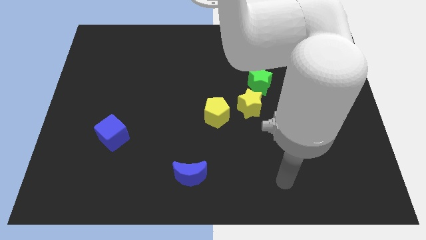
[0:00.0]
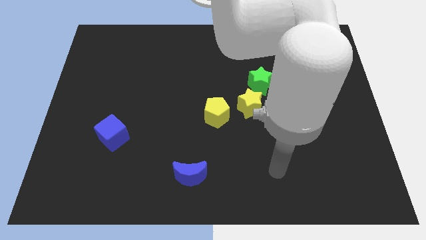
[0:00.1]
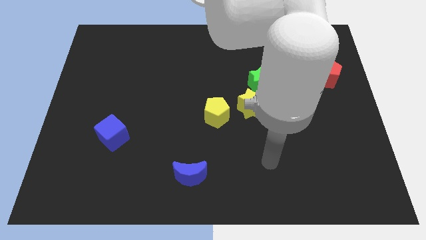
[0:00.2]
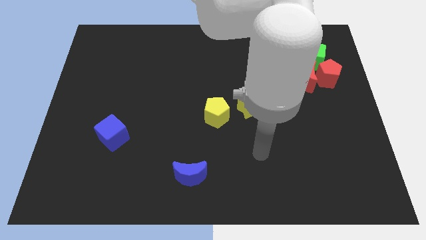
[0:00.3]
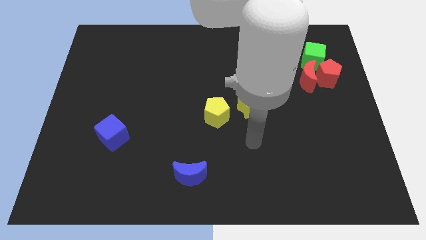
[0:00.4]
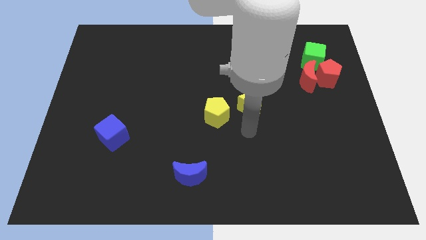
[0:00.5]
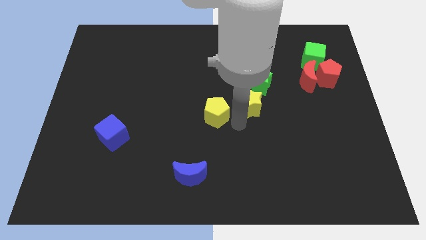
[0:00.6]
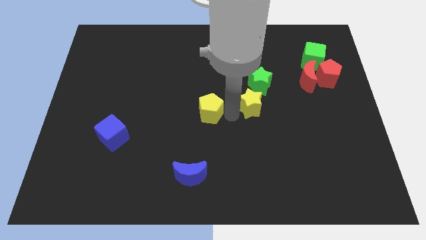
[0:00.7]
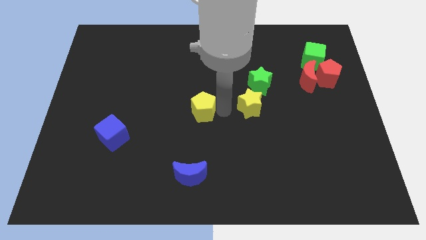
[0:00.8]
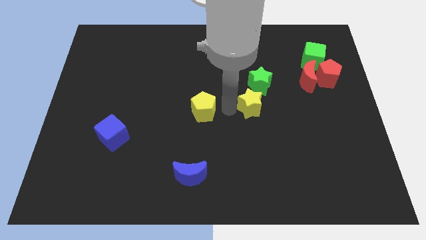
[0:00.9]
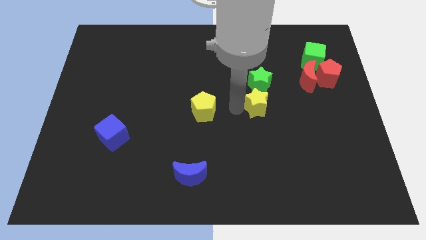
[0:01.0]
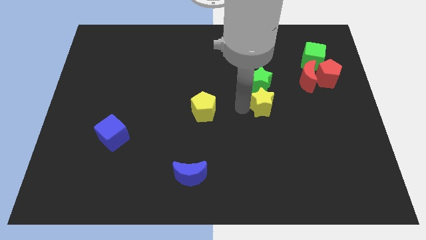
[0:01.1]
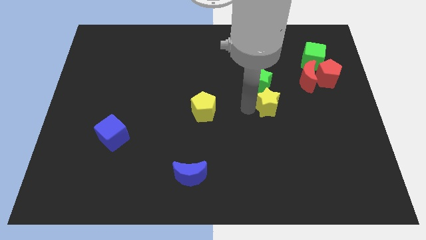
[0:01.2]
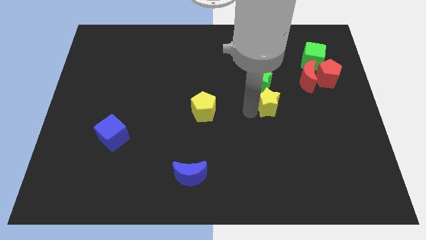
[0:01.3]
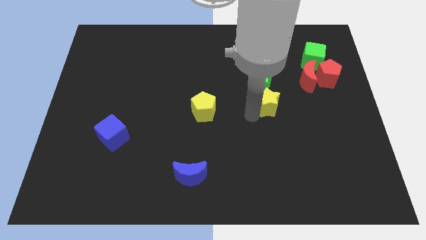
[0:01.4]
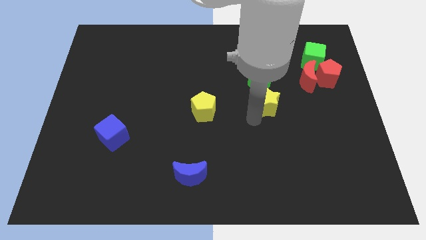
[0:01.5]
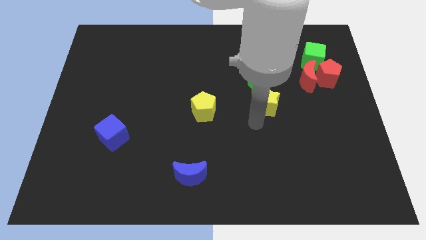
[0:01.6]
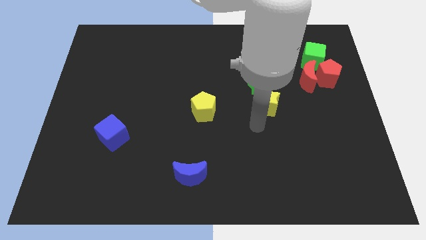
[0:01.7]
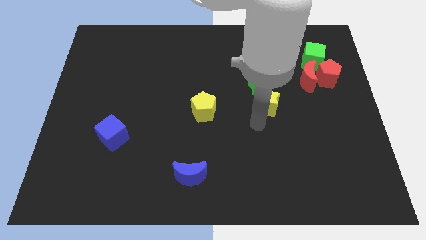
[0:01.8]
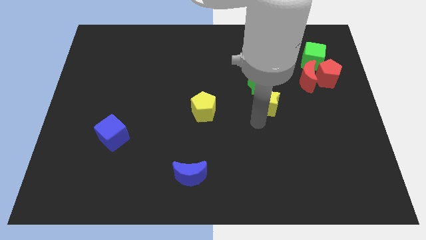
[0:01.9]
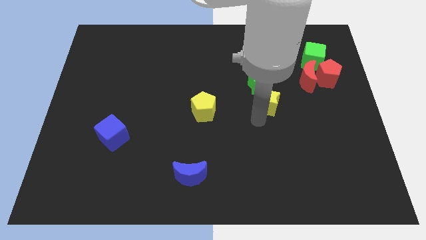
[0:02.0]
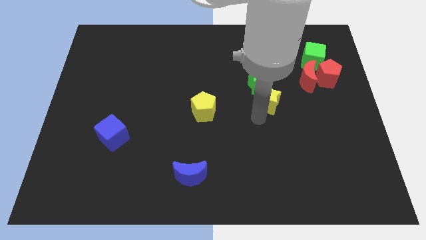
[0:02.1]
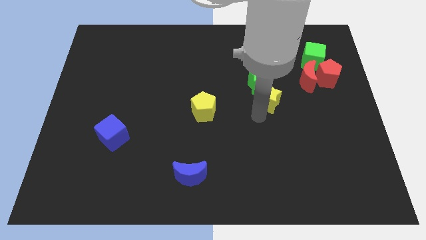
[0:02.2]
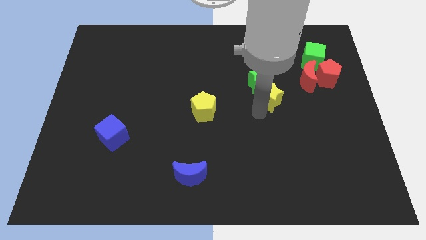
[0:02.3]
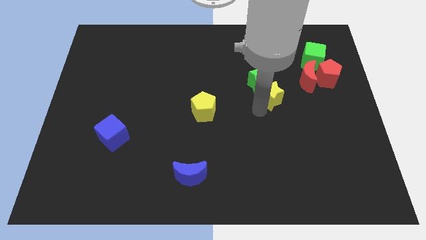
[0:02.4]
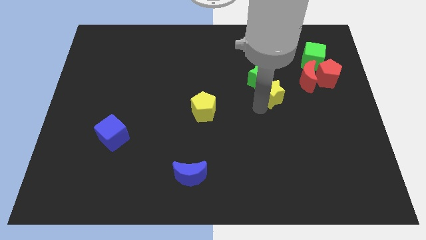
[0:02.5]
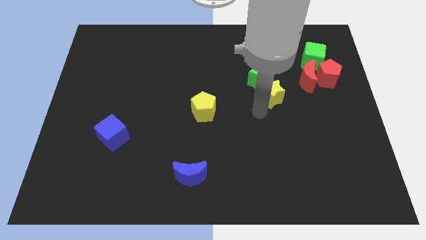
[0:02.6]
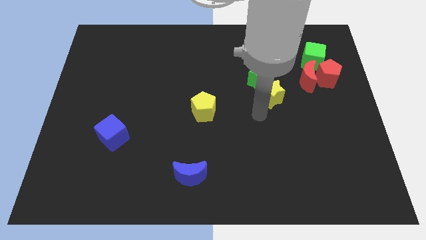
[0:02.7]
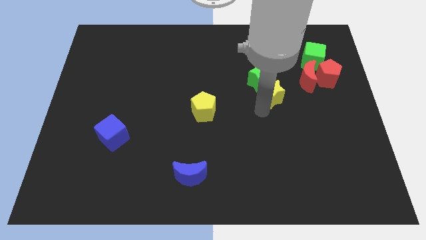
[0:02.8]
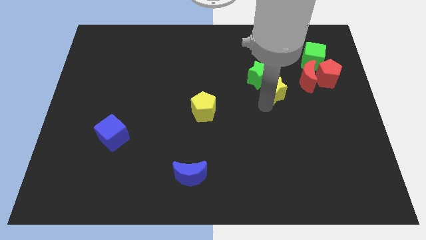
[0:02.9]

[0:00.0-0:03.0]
move the yellow star diagonally upwards and right a bit

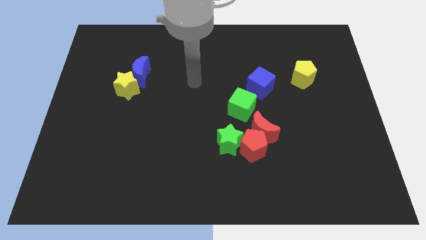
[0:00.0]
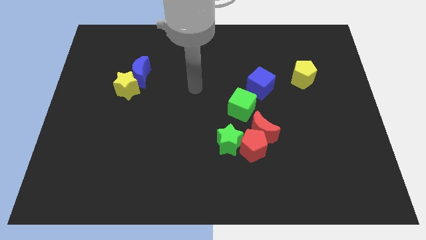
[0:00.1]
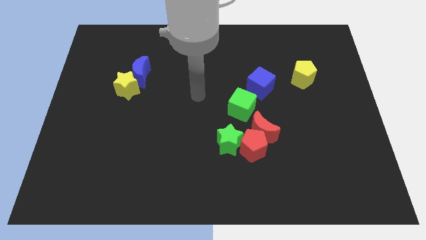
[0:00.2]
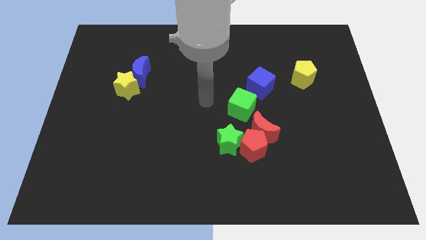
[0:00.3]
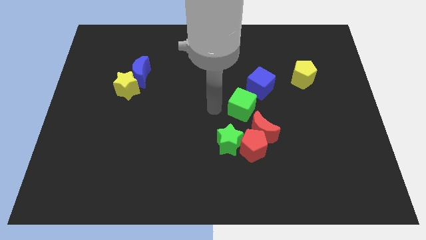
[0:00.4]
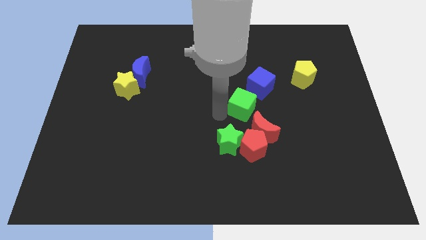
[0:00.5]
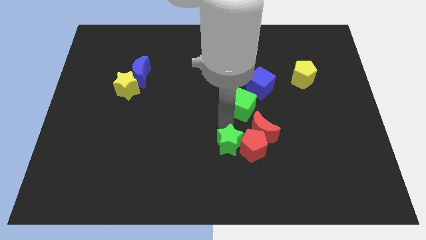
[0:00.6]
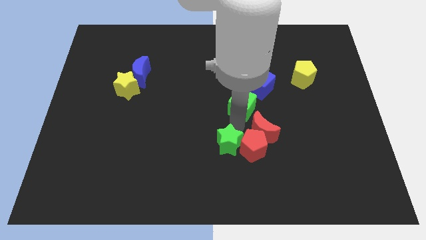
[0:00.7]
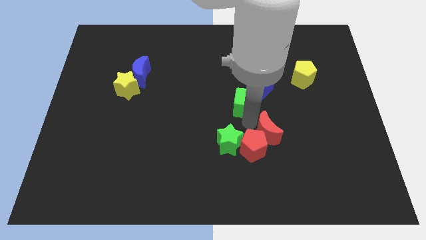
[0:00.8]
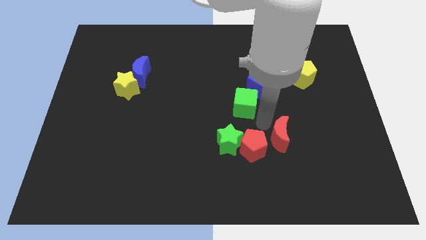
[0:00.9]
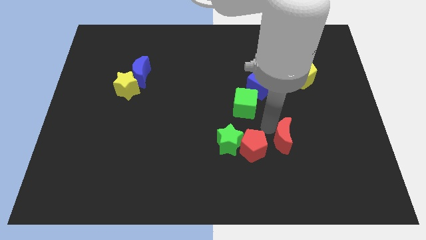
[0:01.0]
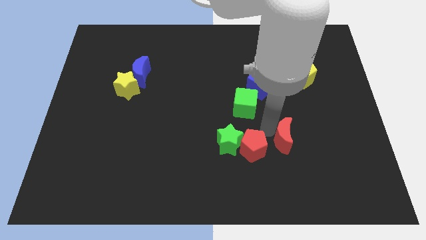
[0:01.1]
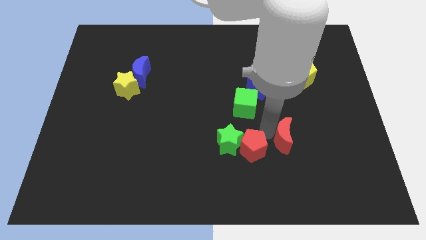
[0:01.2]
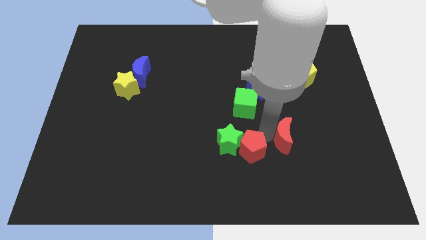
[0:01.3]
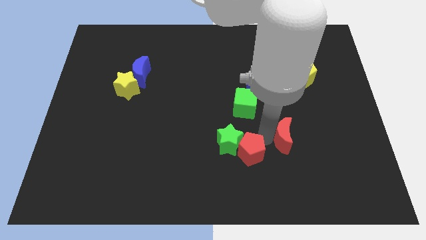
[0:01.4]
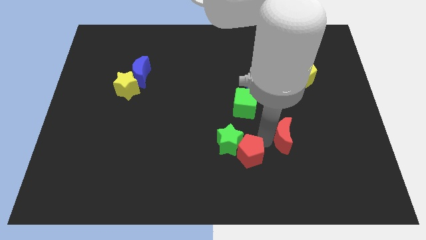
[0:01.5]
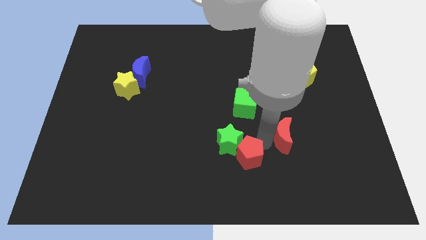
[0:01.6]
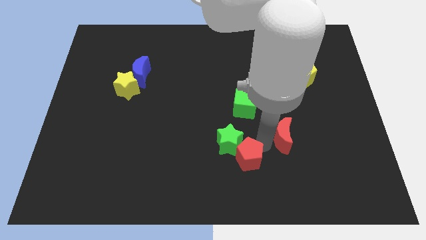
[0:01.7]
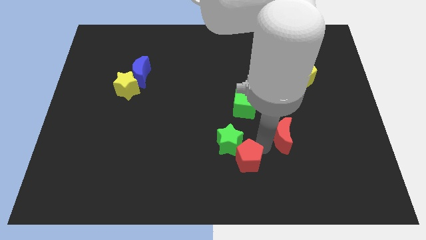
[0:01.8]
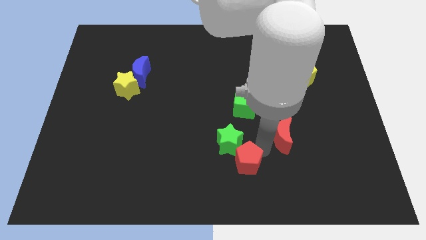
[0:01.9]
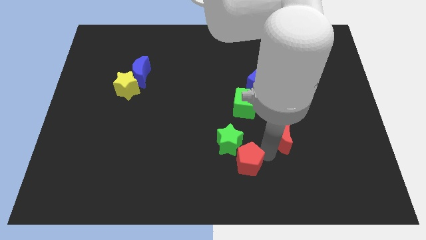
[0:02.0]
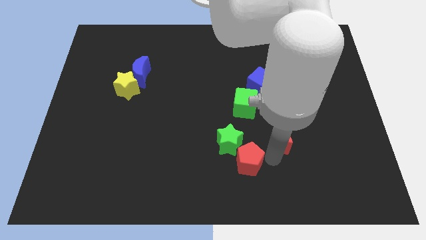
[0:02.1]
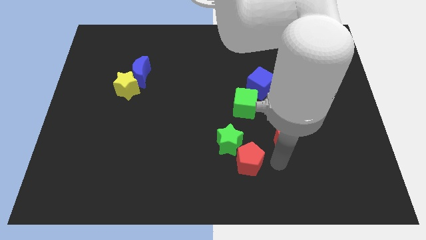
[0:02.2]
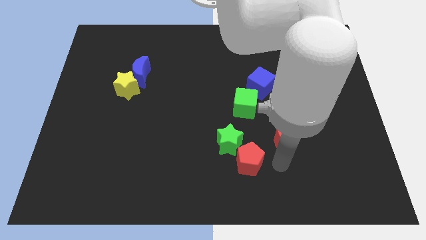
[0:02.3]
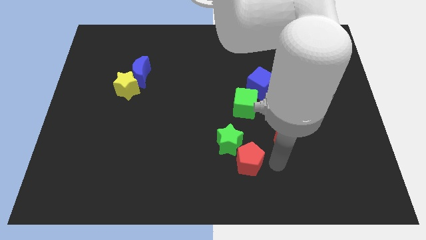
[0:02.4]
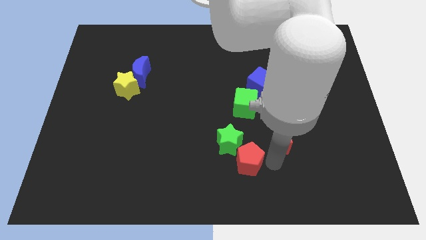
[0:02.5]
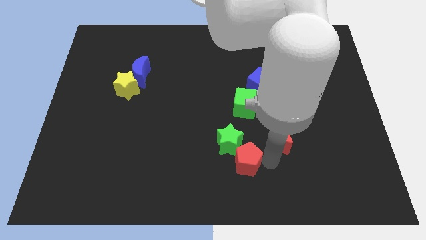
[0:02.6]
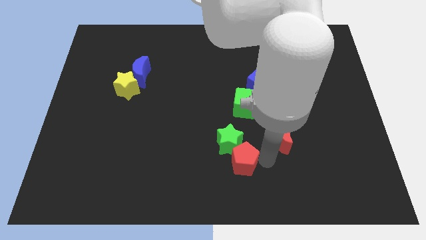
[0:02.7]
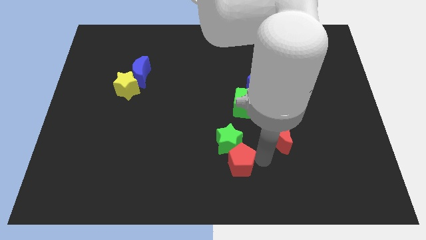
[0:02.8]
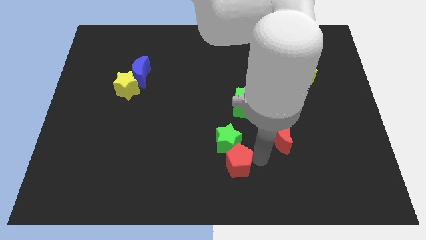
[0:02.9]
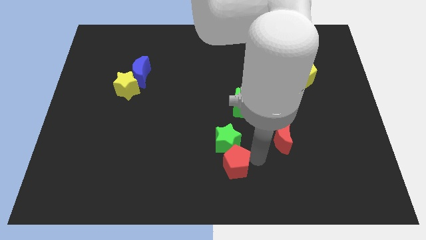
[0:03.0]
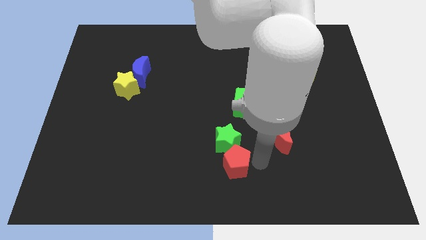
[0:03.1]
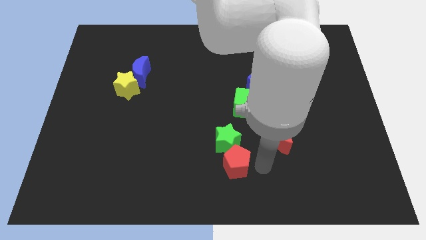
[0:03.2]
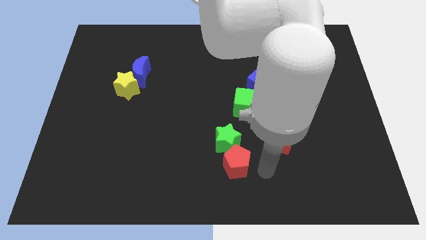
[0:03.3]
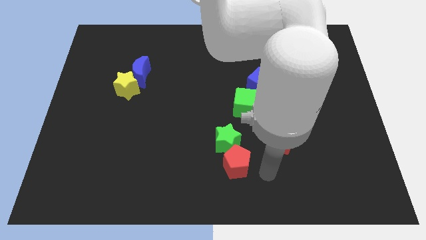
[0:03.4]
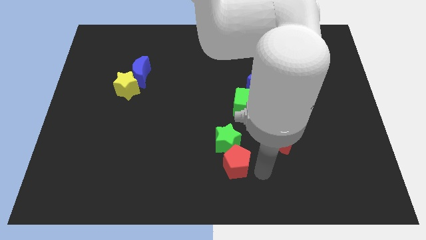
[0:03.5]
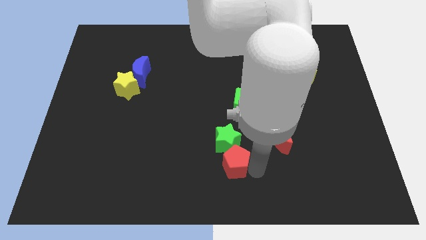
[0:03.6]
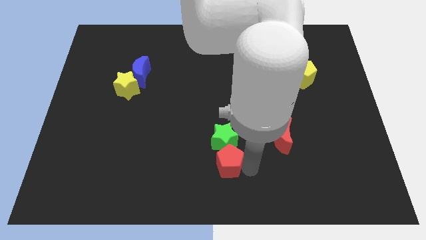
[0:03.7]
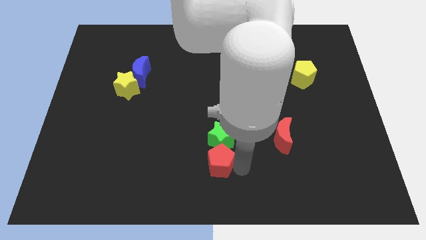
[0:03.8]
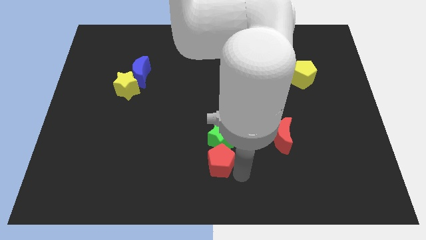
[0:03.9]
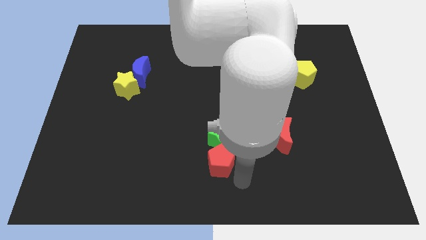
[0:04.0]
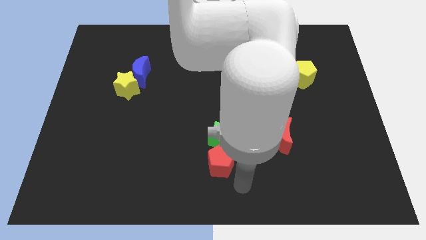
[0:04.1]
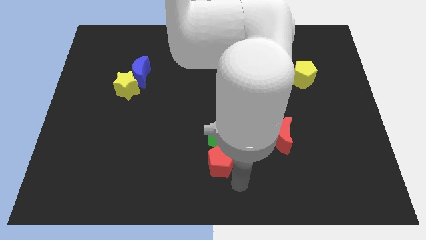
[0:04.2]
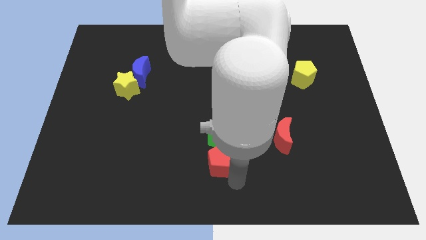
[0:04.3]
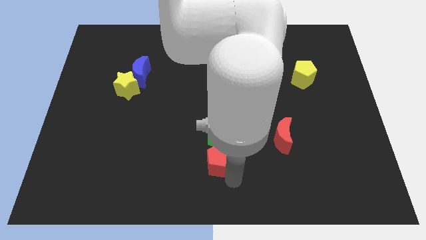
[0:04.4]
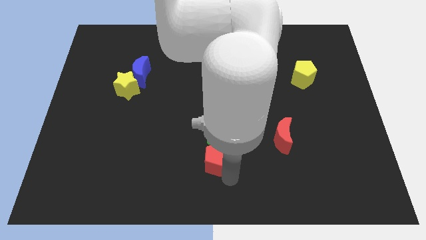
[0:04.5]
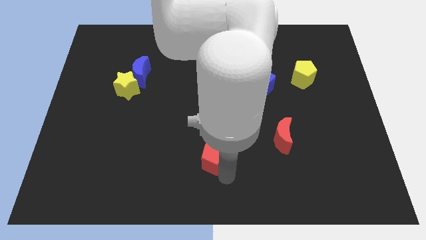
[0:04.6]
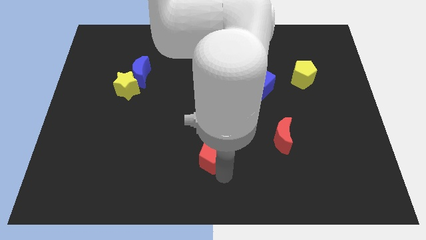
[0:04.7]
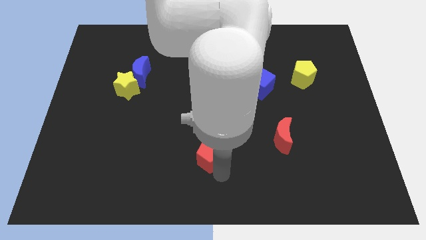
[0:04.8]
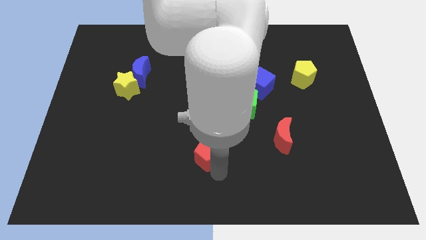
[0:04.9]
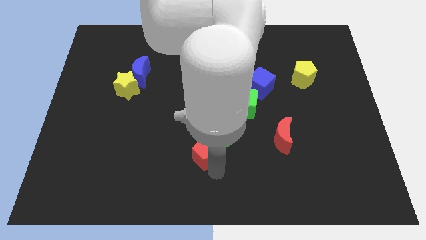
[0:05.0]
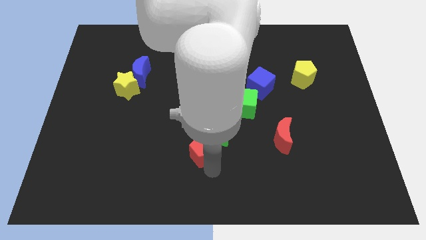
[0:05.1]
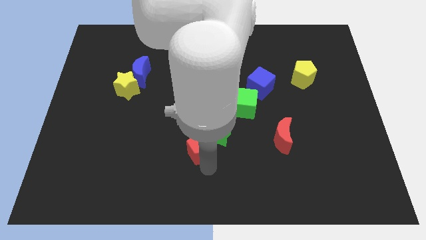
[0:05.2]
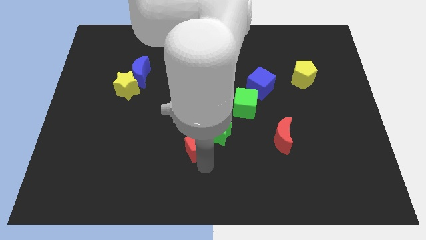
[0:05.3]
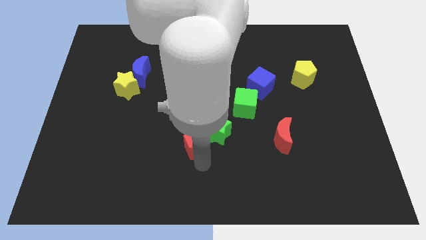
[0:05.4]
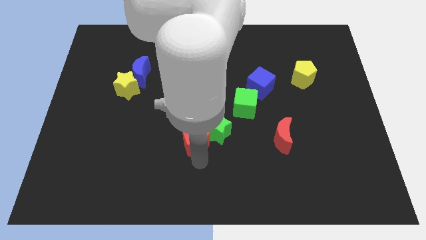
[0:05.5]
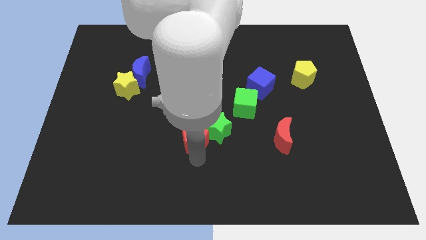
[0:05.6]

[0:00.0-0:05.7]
slightly move the red pentagon diagonally up and left
